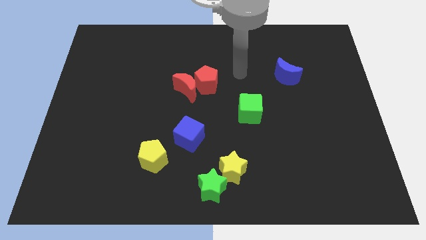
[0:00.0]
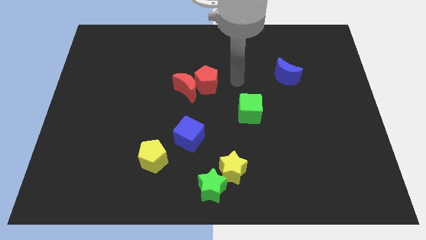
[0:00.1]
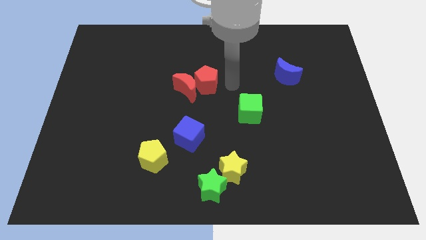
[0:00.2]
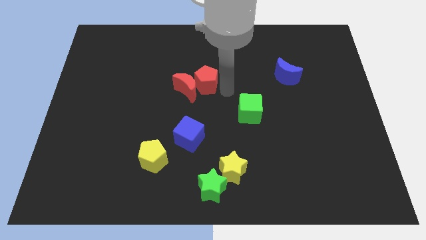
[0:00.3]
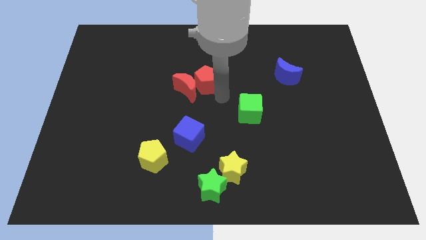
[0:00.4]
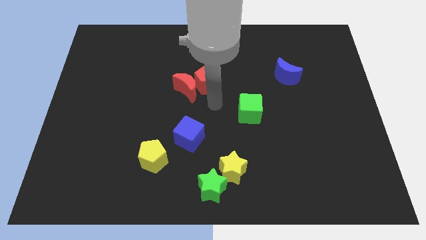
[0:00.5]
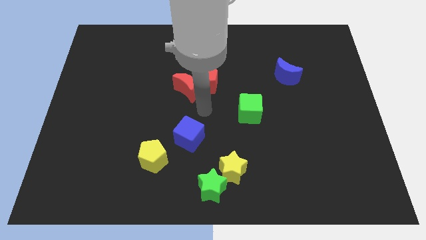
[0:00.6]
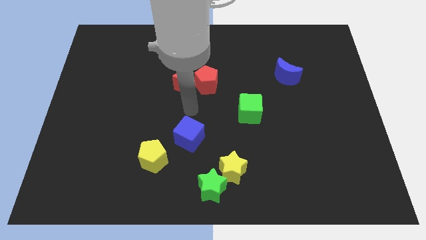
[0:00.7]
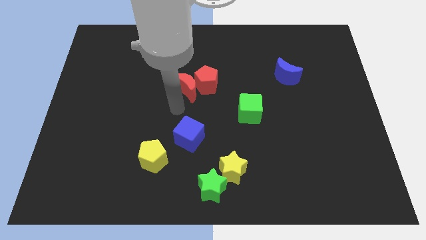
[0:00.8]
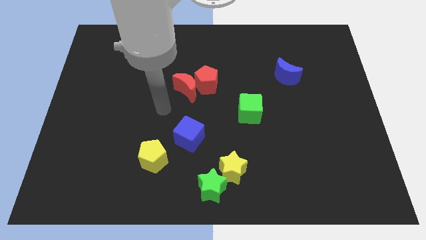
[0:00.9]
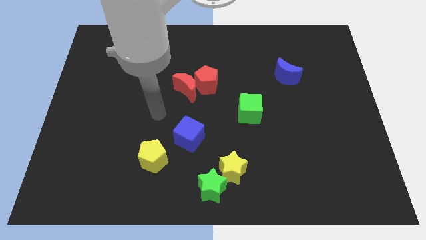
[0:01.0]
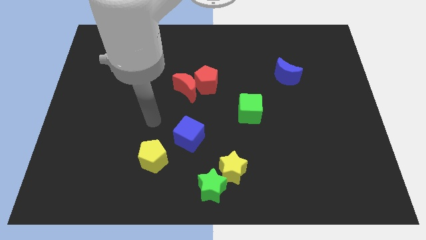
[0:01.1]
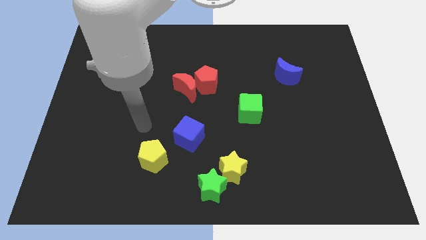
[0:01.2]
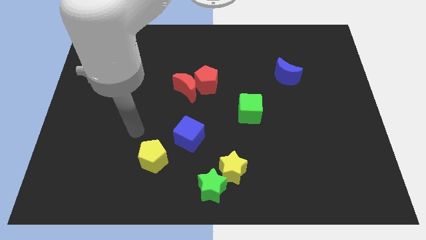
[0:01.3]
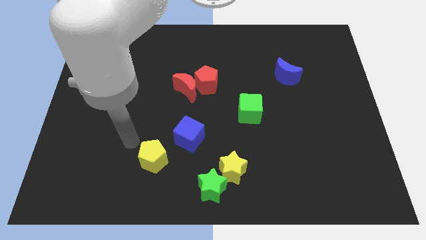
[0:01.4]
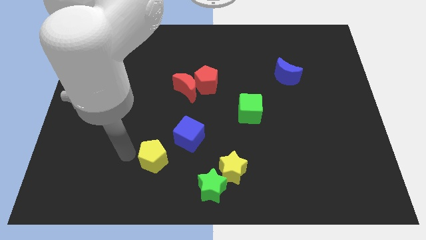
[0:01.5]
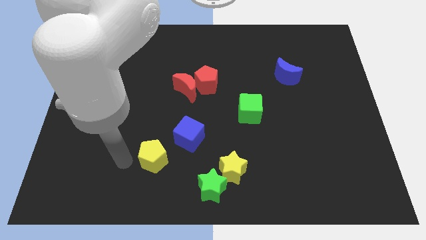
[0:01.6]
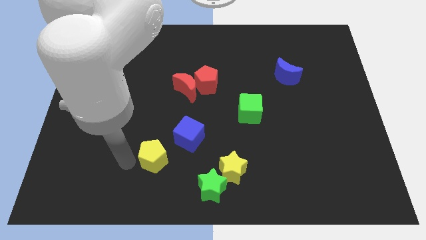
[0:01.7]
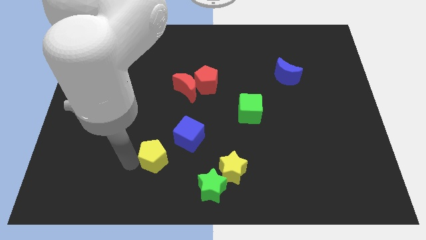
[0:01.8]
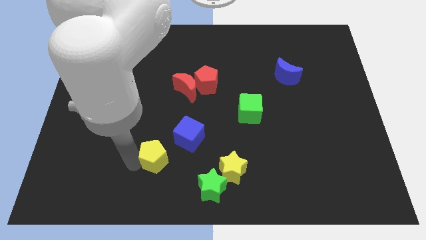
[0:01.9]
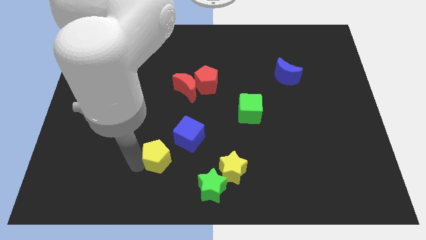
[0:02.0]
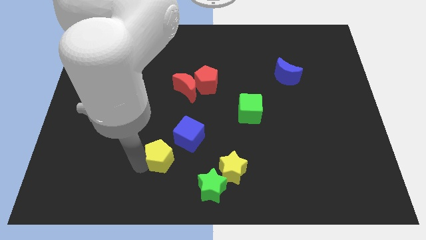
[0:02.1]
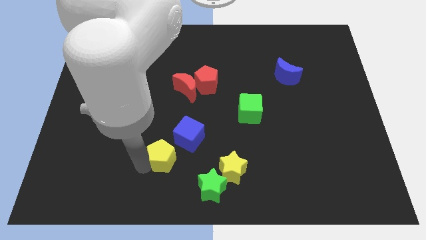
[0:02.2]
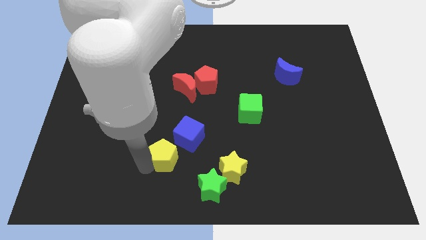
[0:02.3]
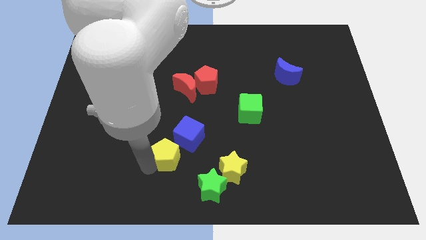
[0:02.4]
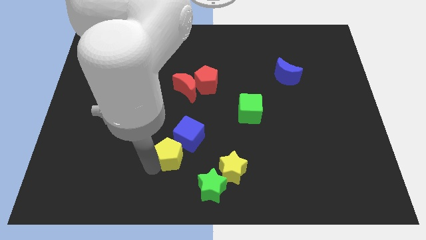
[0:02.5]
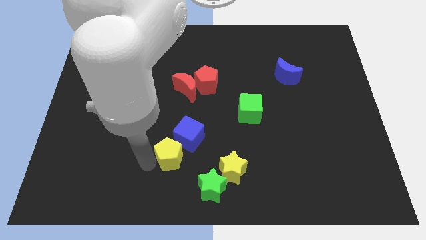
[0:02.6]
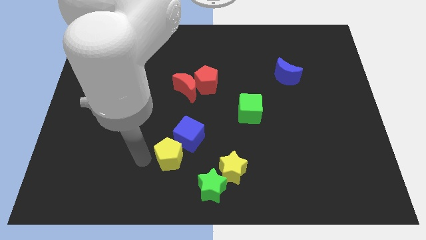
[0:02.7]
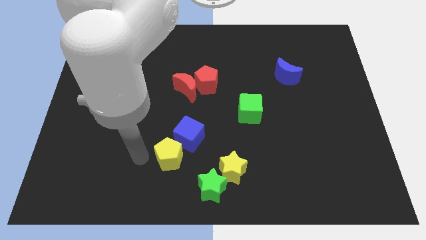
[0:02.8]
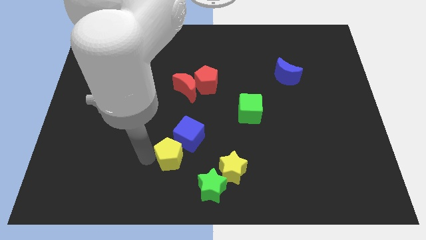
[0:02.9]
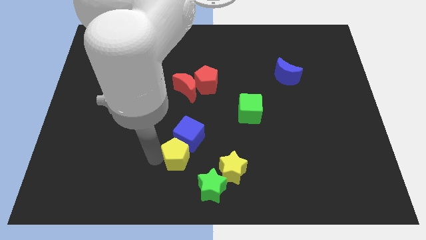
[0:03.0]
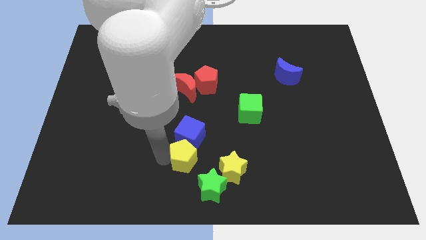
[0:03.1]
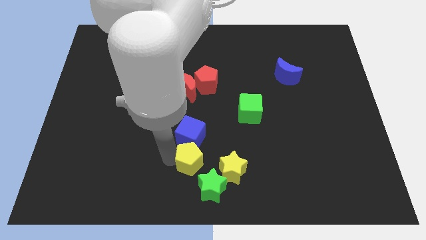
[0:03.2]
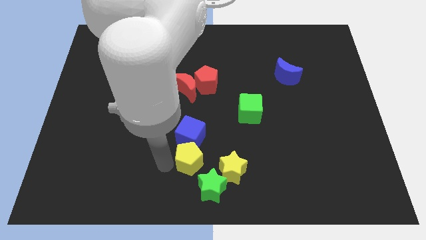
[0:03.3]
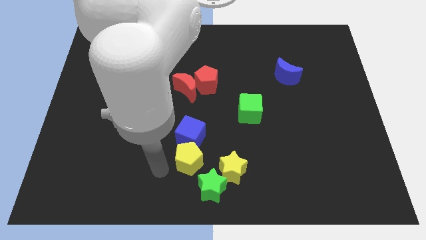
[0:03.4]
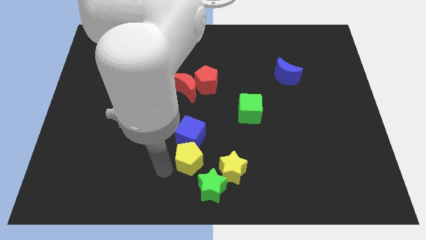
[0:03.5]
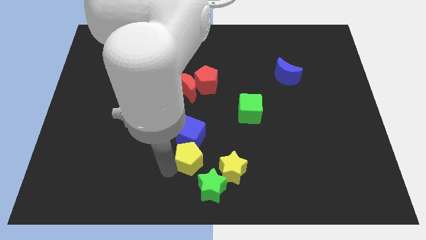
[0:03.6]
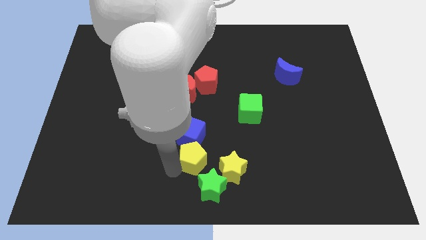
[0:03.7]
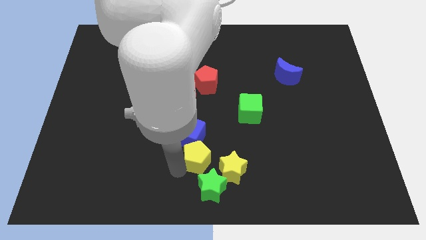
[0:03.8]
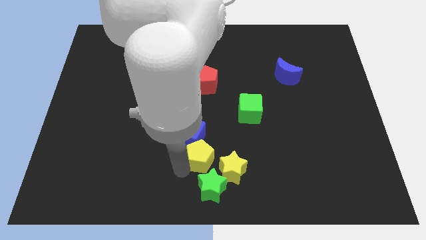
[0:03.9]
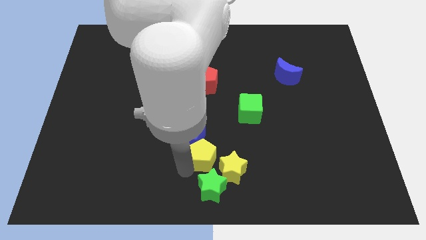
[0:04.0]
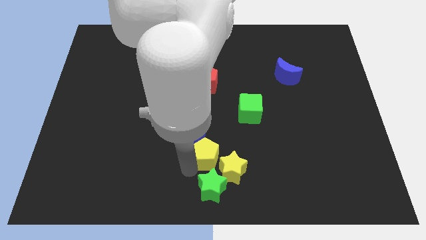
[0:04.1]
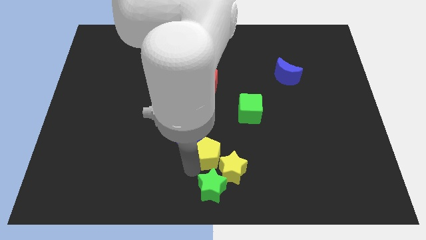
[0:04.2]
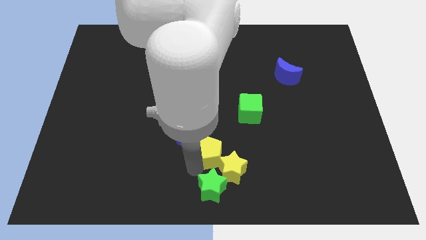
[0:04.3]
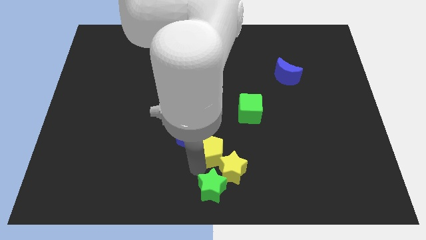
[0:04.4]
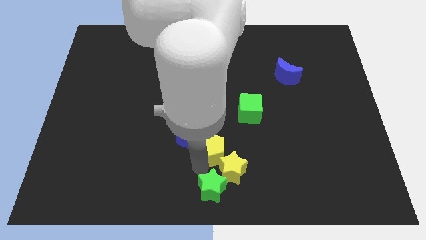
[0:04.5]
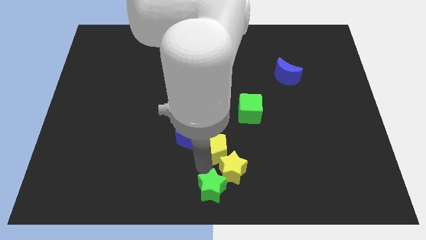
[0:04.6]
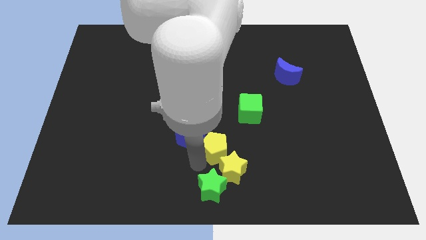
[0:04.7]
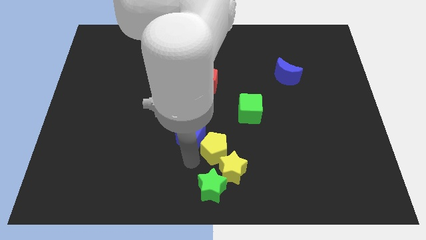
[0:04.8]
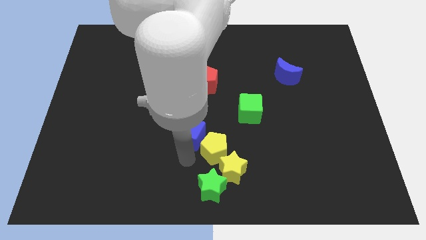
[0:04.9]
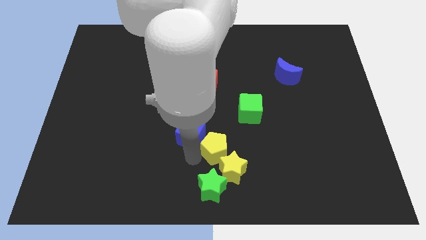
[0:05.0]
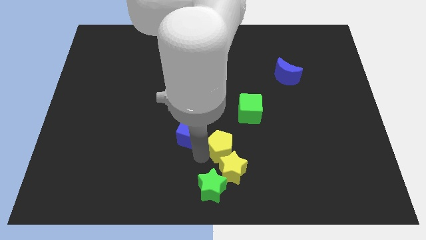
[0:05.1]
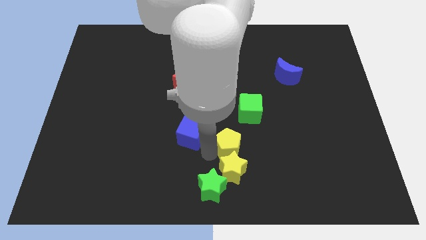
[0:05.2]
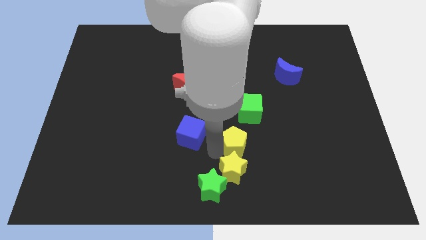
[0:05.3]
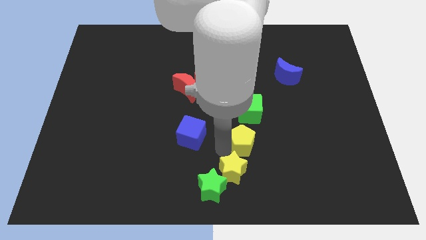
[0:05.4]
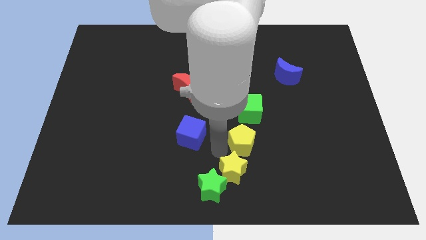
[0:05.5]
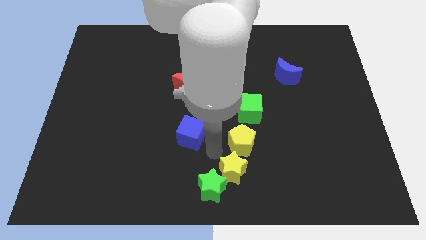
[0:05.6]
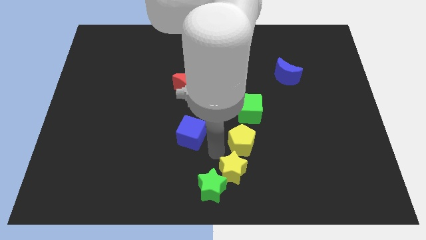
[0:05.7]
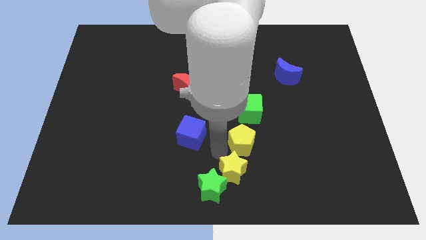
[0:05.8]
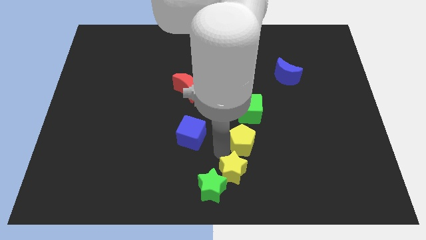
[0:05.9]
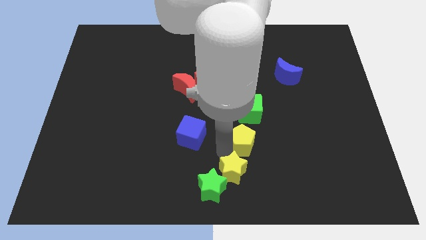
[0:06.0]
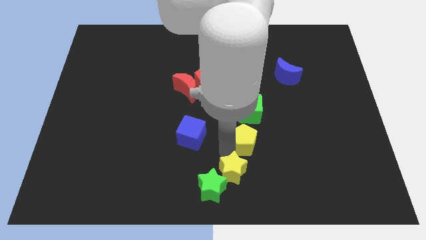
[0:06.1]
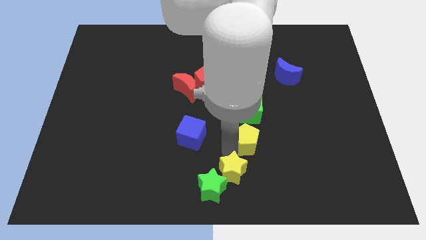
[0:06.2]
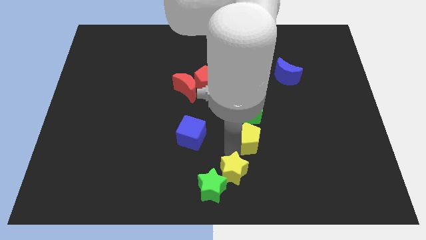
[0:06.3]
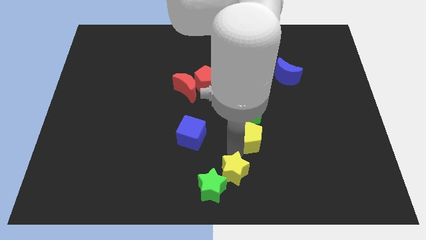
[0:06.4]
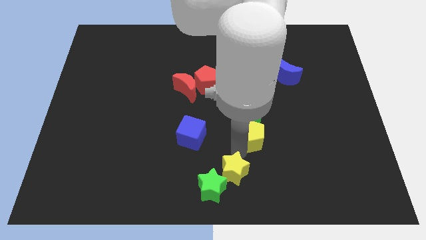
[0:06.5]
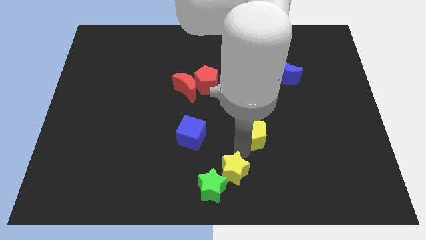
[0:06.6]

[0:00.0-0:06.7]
slide the yellow pentagon to the bottom right of the green cube
